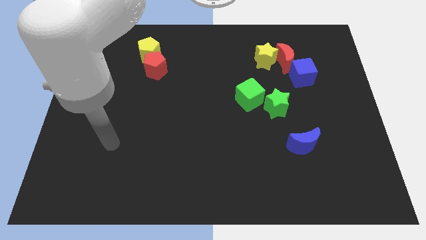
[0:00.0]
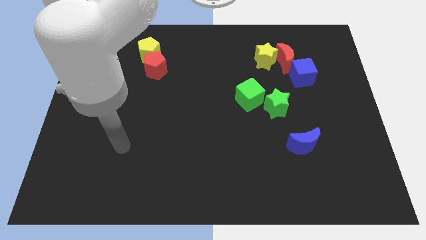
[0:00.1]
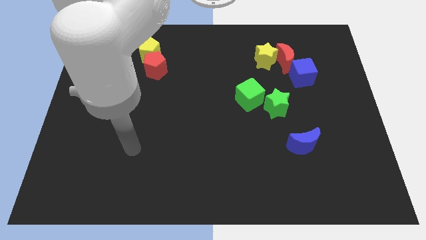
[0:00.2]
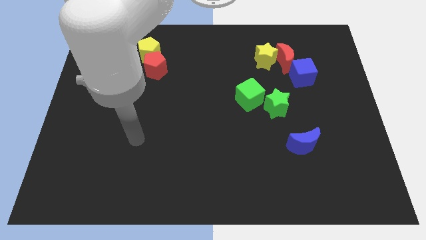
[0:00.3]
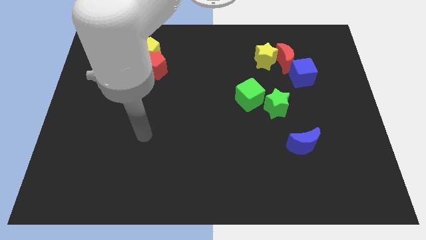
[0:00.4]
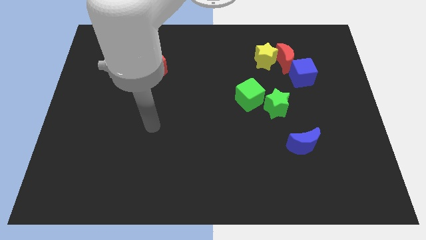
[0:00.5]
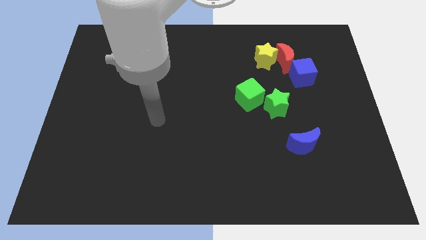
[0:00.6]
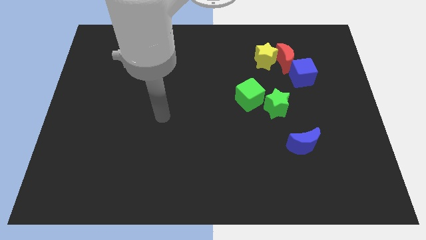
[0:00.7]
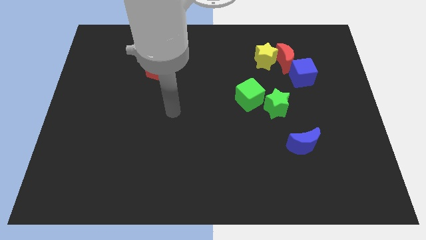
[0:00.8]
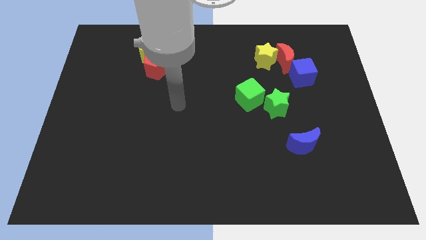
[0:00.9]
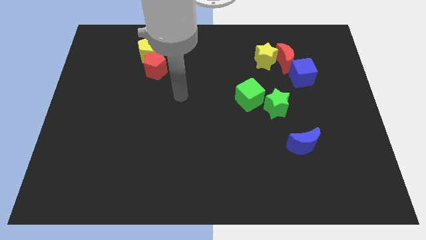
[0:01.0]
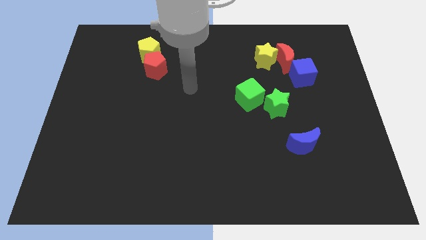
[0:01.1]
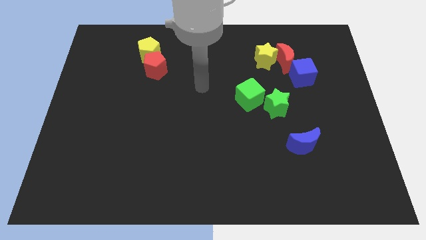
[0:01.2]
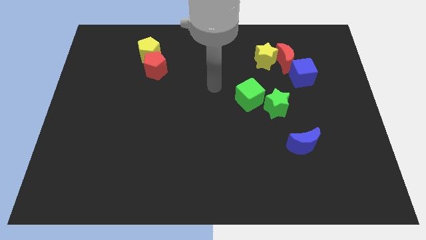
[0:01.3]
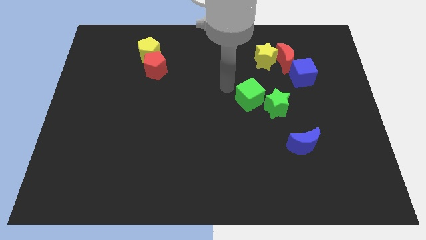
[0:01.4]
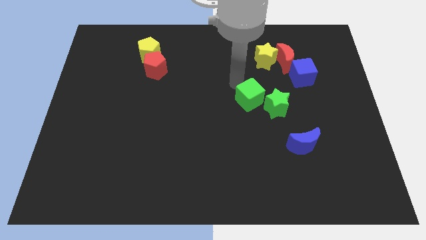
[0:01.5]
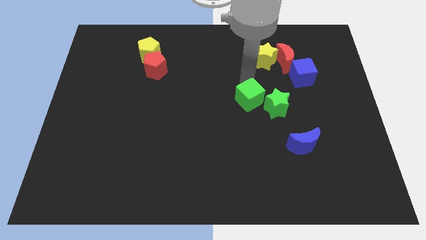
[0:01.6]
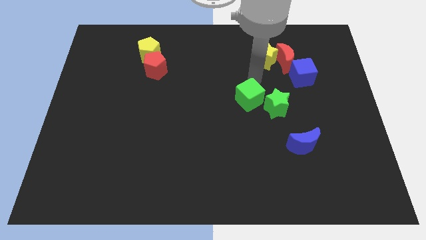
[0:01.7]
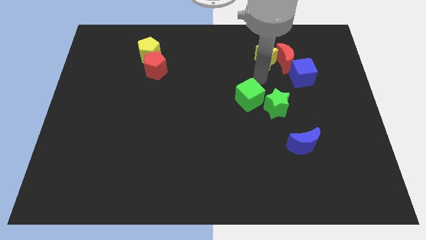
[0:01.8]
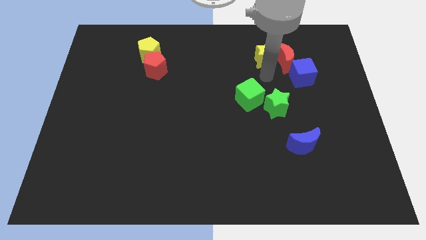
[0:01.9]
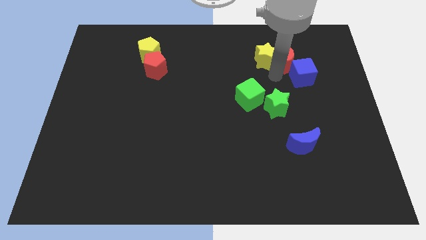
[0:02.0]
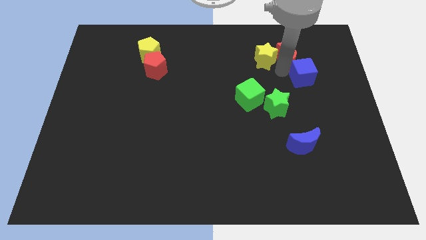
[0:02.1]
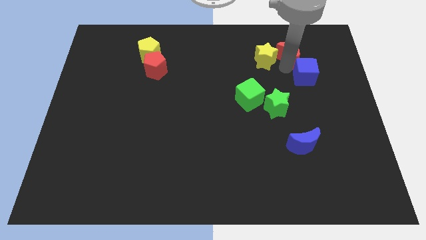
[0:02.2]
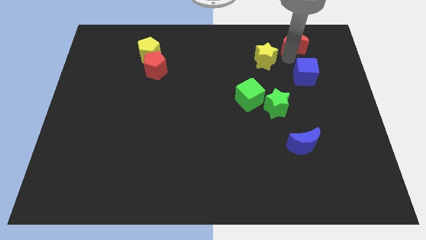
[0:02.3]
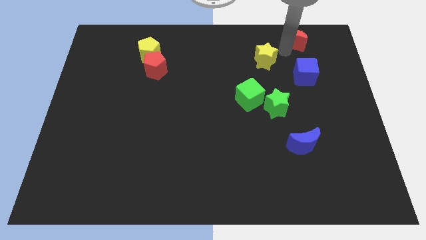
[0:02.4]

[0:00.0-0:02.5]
pull the yellow star apart from the red moon

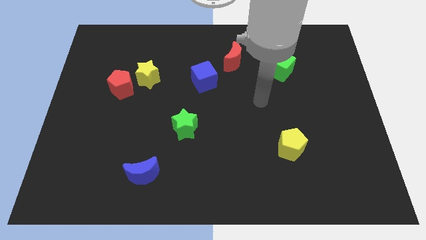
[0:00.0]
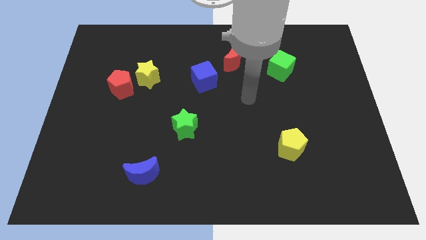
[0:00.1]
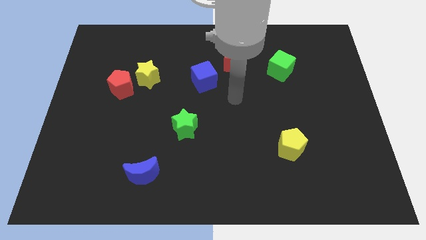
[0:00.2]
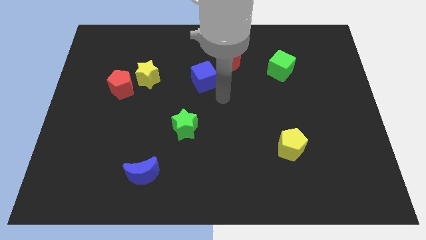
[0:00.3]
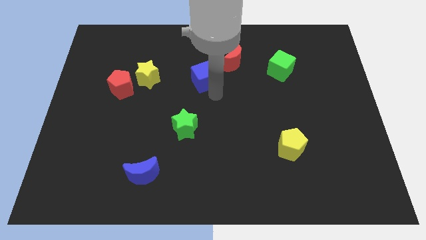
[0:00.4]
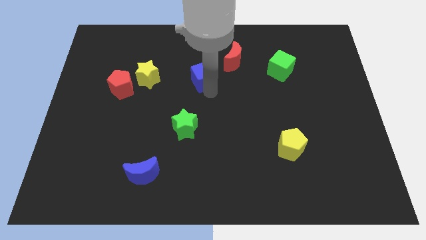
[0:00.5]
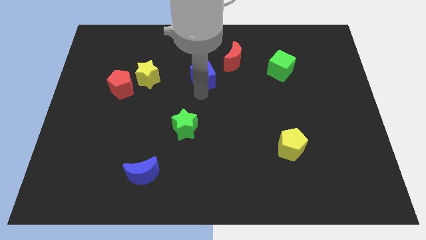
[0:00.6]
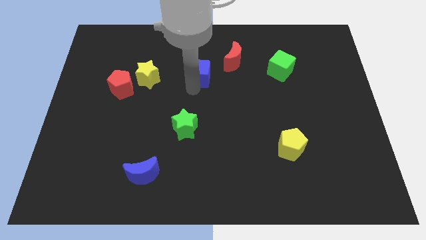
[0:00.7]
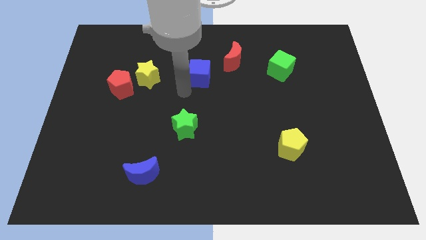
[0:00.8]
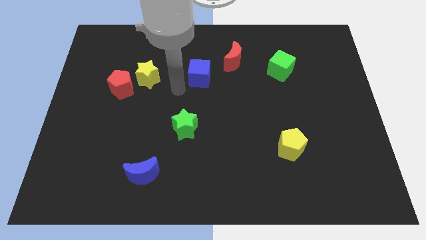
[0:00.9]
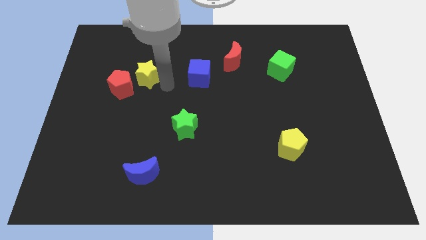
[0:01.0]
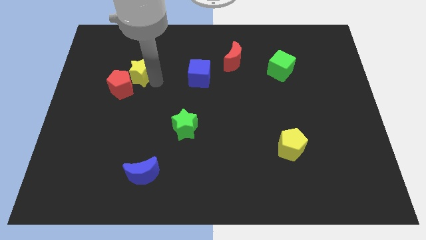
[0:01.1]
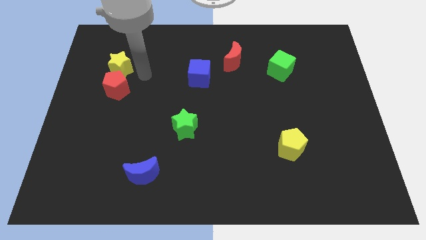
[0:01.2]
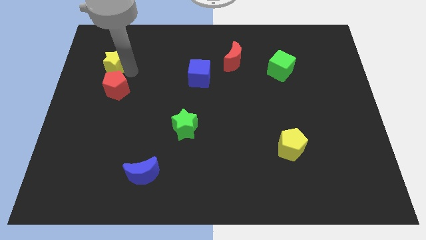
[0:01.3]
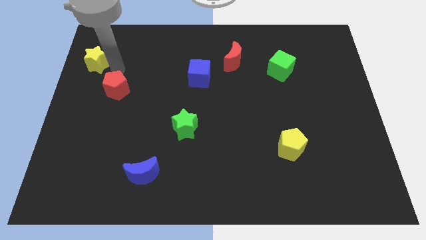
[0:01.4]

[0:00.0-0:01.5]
separate the red pentagon from the yellow star

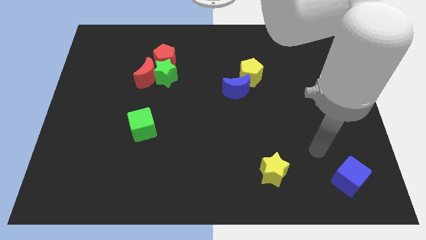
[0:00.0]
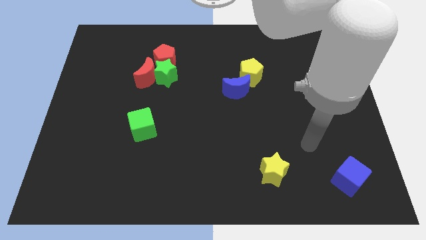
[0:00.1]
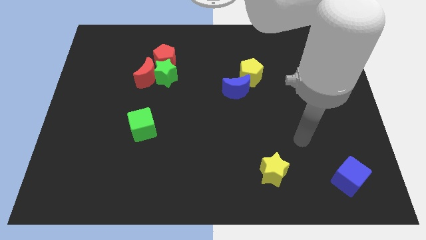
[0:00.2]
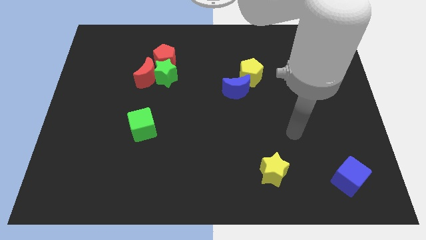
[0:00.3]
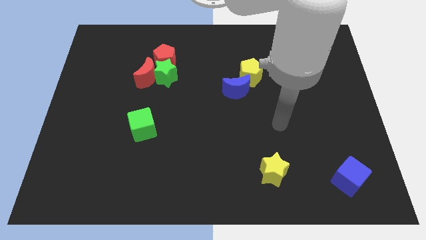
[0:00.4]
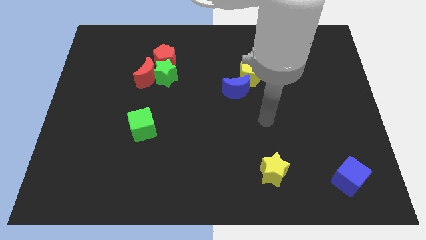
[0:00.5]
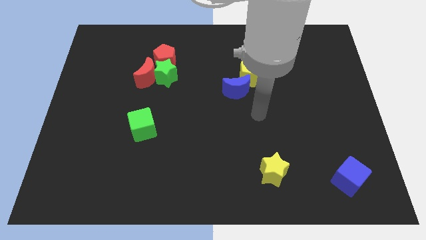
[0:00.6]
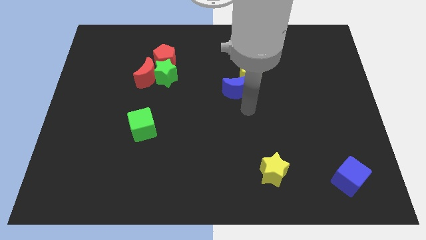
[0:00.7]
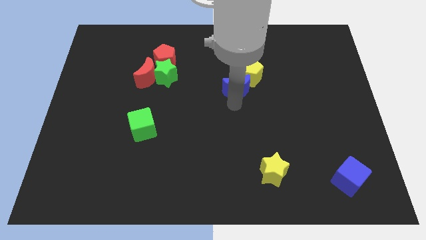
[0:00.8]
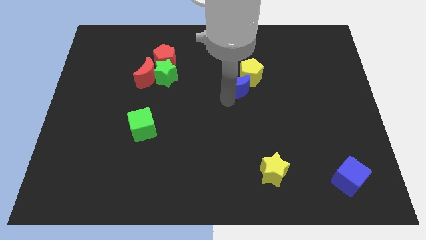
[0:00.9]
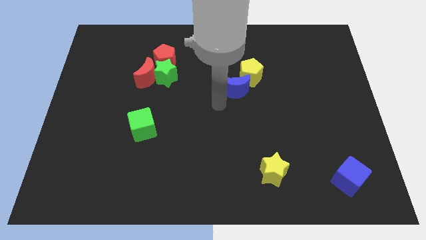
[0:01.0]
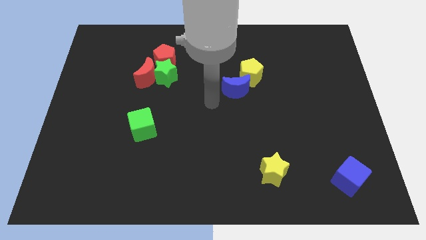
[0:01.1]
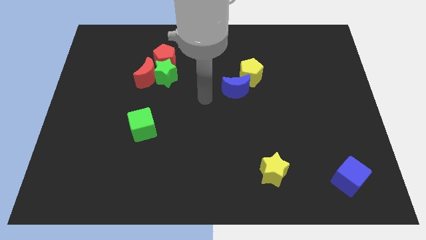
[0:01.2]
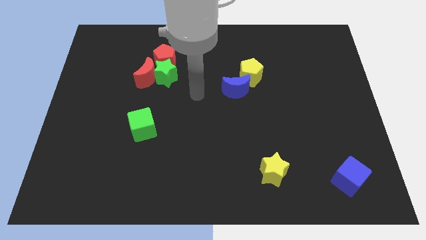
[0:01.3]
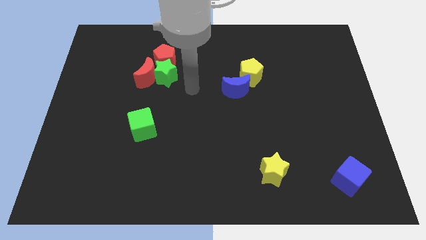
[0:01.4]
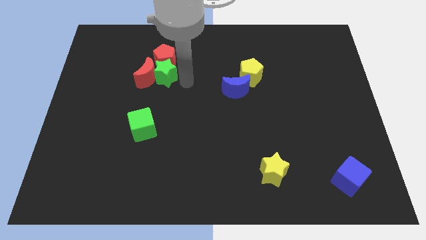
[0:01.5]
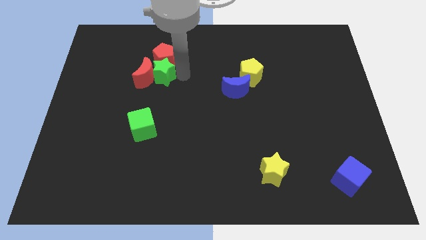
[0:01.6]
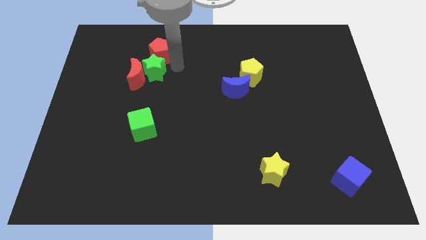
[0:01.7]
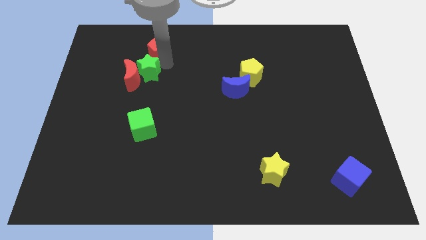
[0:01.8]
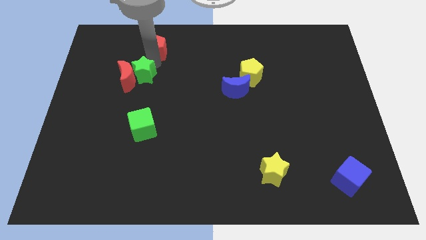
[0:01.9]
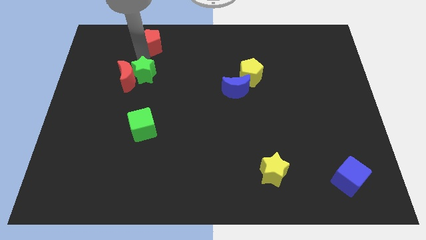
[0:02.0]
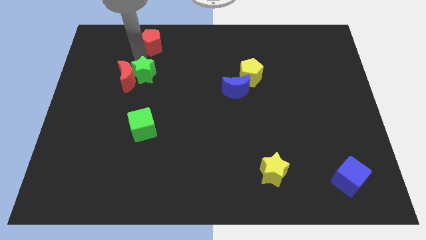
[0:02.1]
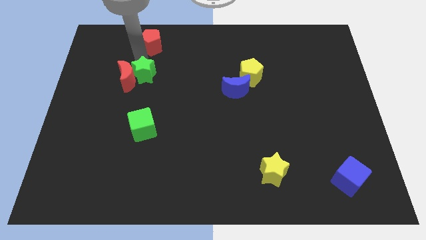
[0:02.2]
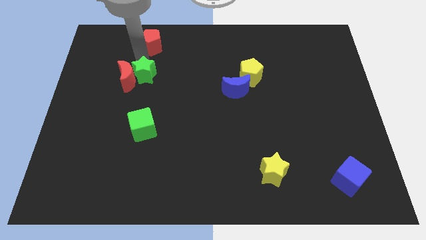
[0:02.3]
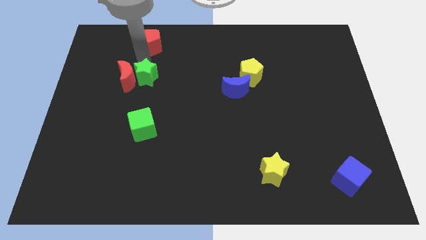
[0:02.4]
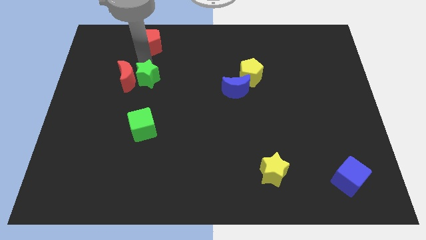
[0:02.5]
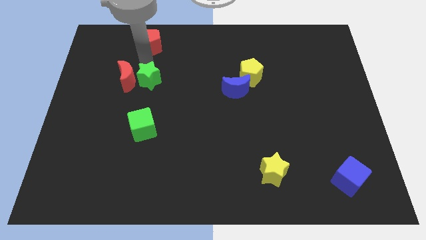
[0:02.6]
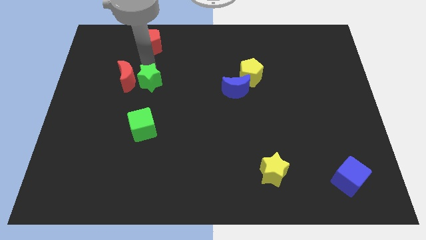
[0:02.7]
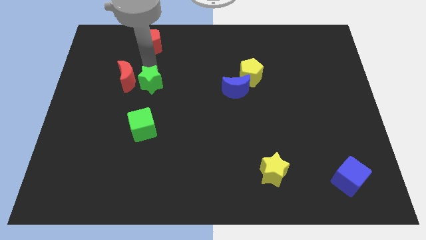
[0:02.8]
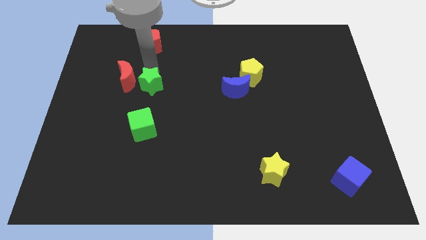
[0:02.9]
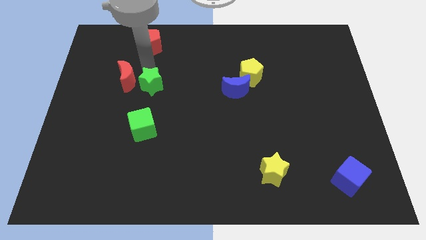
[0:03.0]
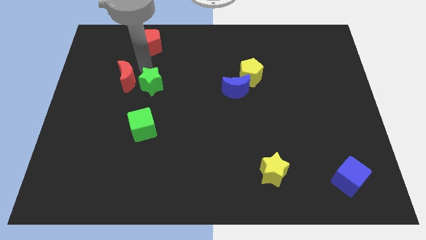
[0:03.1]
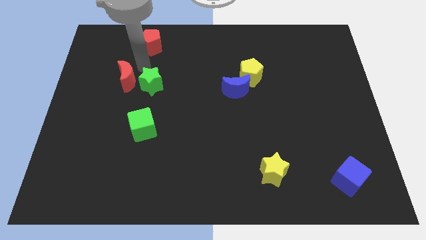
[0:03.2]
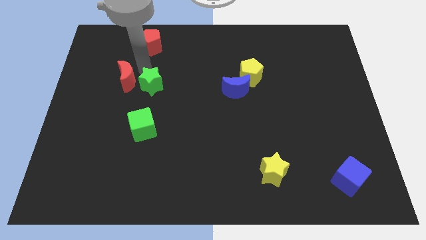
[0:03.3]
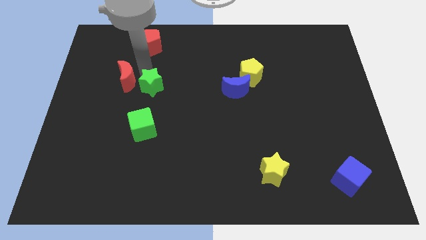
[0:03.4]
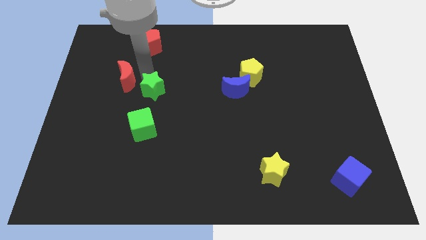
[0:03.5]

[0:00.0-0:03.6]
move the green star away from the red moon and red pentagon

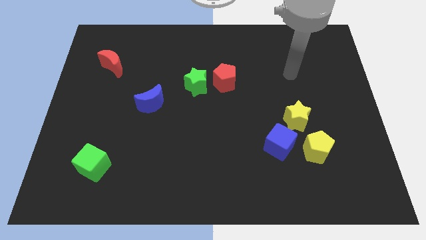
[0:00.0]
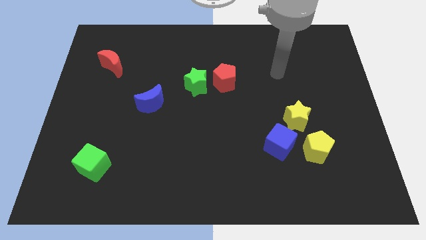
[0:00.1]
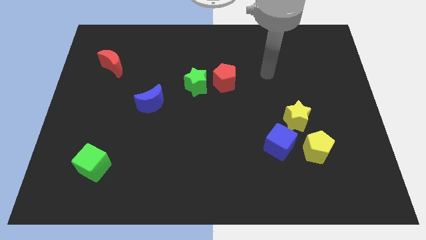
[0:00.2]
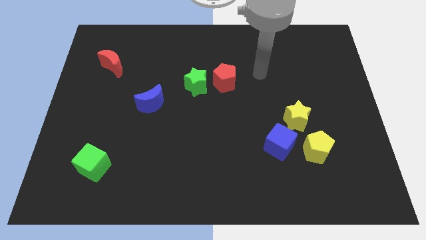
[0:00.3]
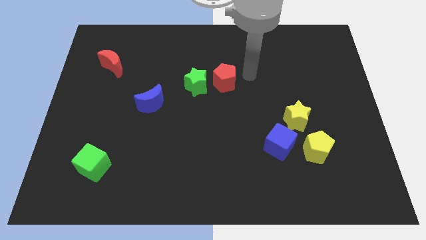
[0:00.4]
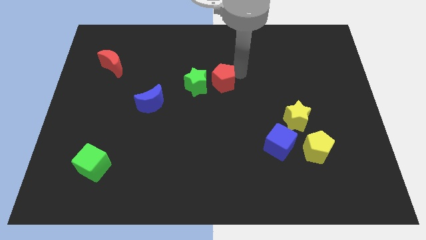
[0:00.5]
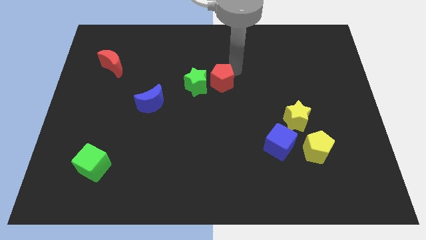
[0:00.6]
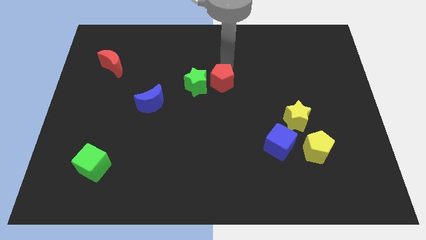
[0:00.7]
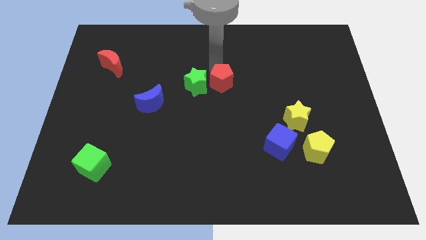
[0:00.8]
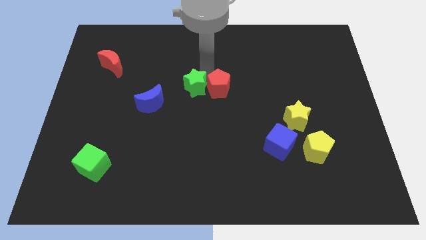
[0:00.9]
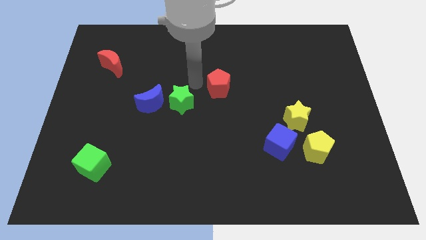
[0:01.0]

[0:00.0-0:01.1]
pull the red pentagon apart from the green star

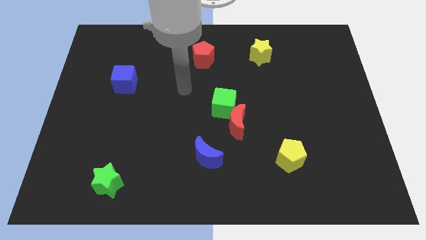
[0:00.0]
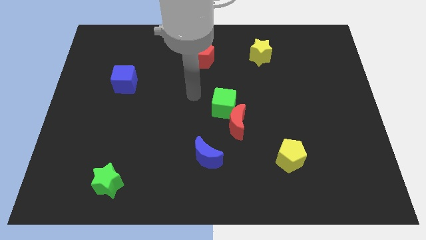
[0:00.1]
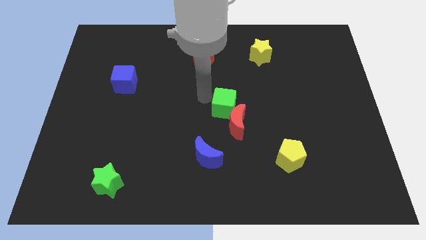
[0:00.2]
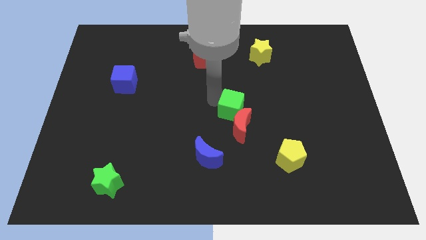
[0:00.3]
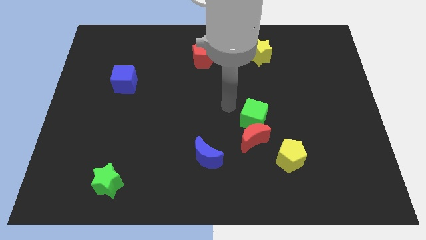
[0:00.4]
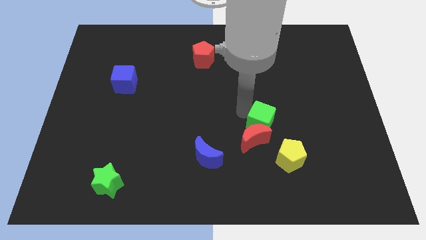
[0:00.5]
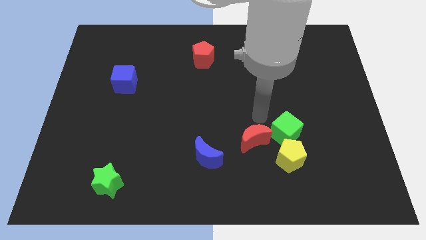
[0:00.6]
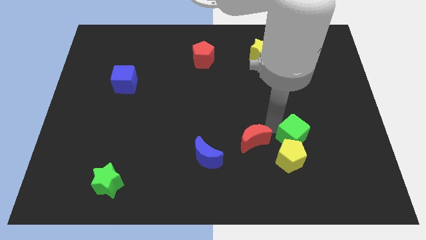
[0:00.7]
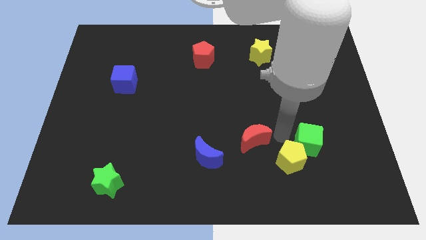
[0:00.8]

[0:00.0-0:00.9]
separate the red moon from the green cube
